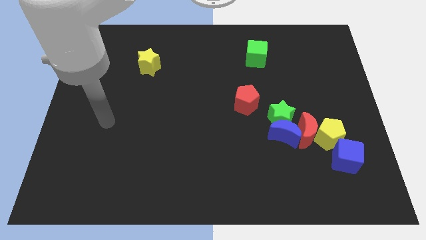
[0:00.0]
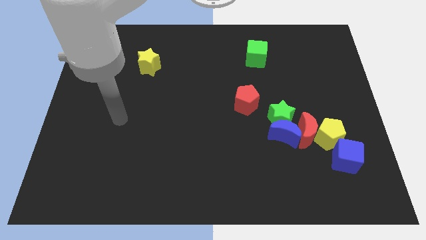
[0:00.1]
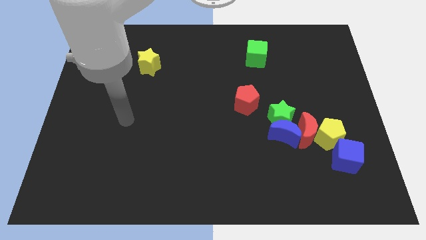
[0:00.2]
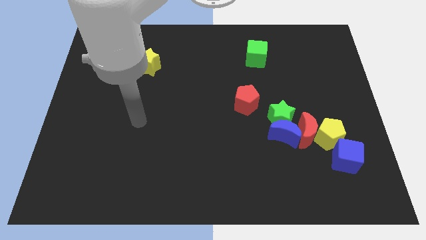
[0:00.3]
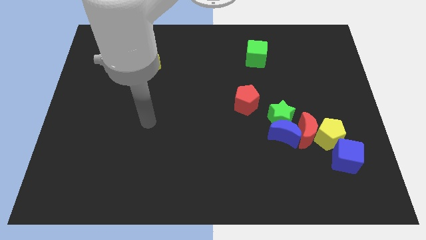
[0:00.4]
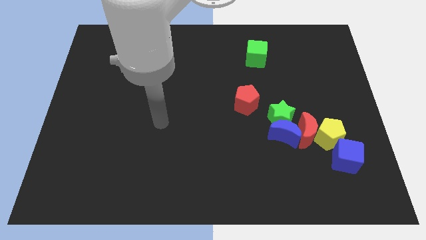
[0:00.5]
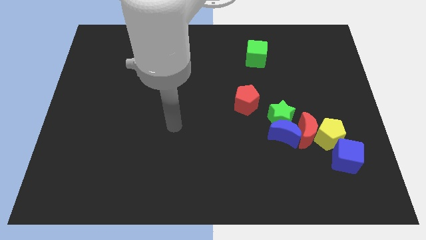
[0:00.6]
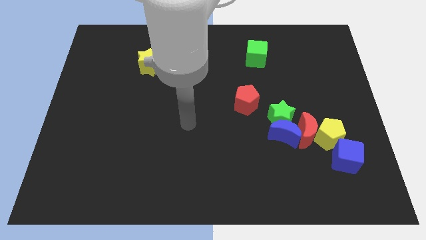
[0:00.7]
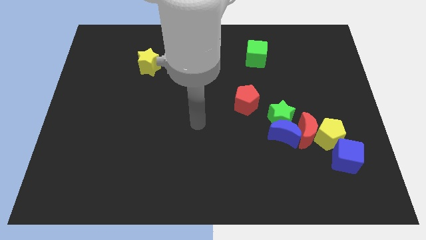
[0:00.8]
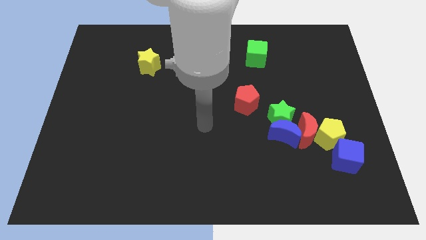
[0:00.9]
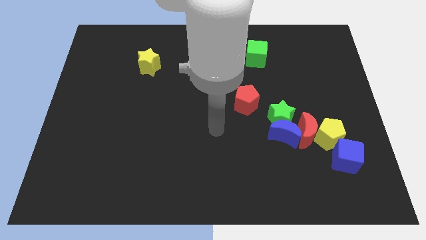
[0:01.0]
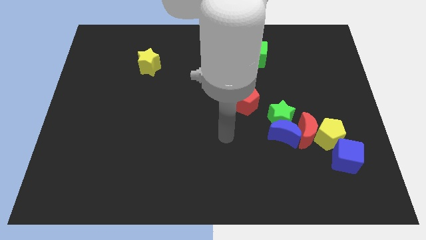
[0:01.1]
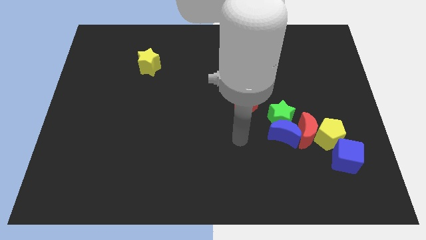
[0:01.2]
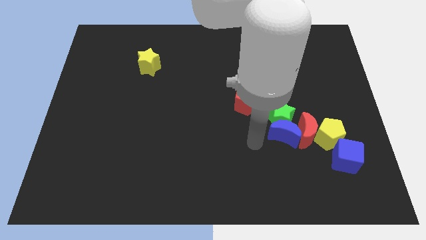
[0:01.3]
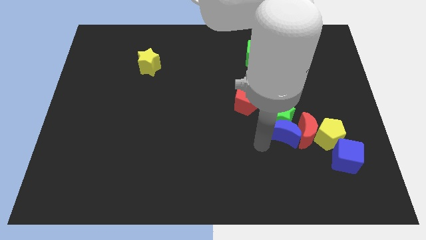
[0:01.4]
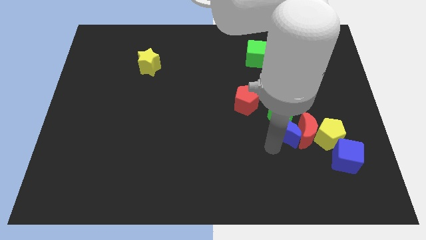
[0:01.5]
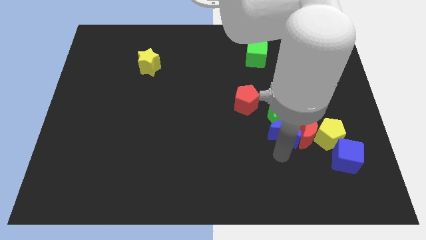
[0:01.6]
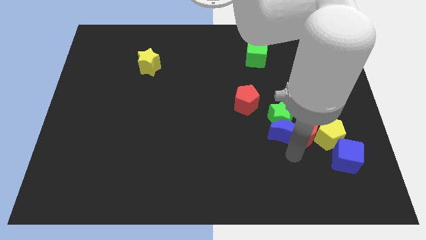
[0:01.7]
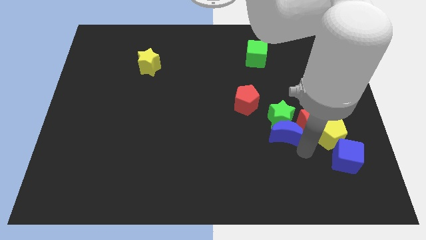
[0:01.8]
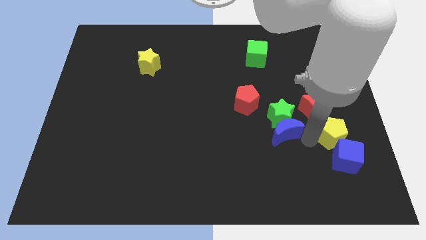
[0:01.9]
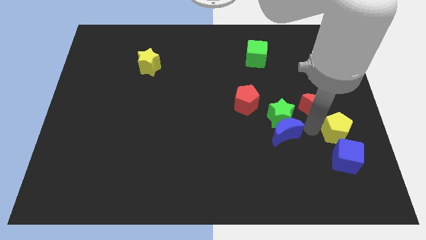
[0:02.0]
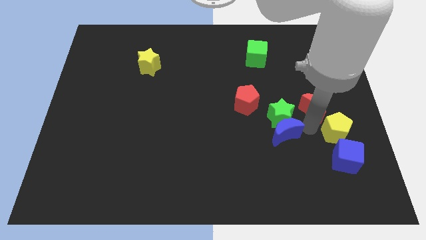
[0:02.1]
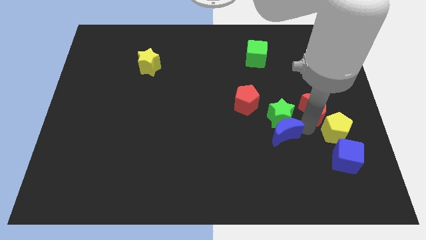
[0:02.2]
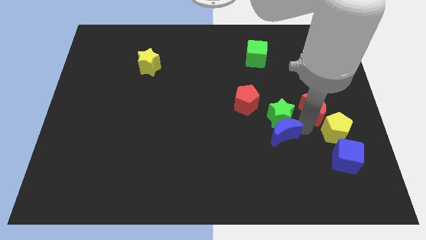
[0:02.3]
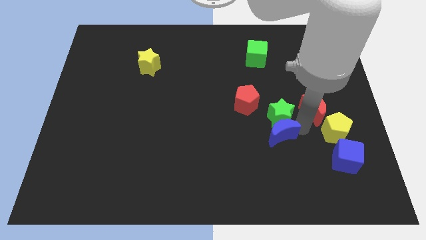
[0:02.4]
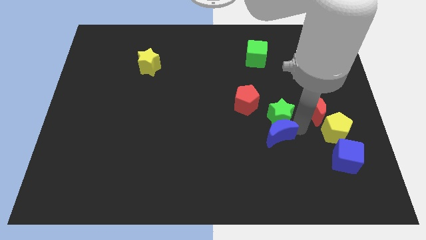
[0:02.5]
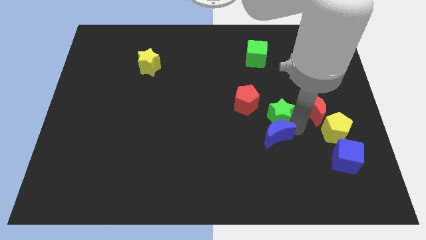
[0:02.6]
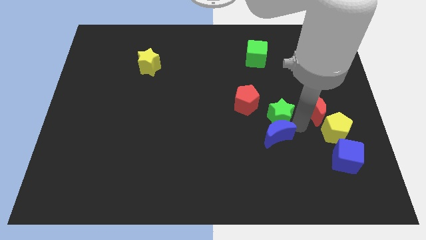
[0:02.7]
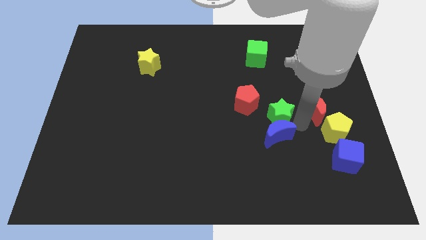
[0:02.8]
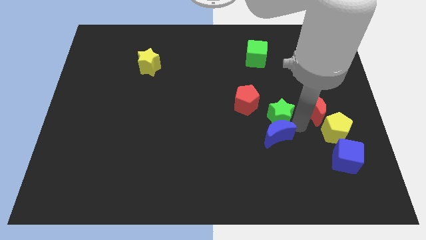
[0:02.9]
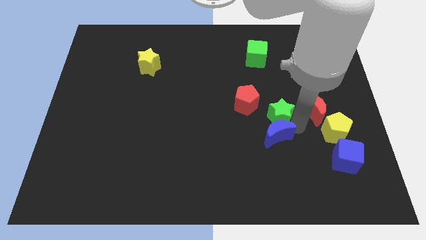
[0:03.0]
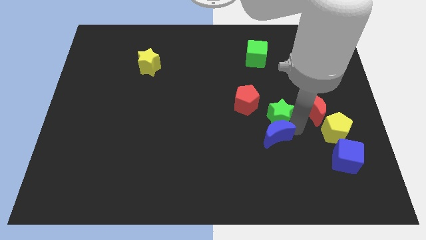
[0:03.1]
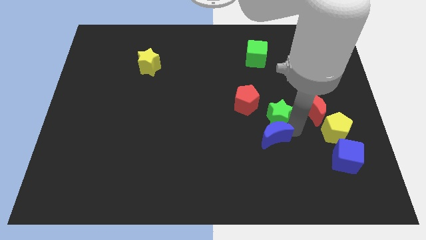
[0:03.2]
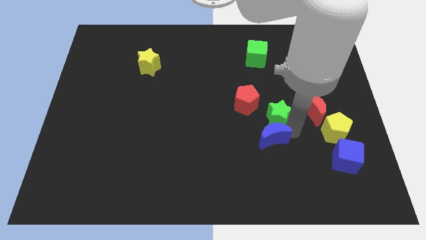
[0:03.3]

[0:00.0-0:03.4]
separate the blue moon from the green star, red moon, and yellow pentagon

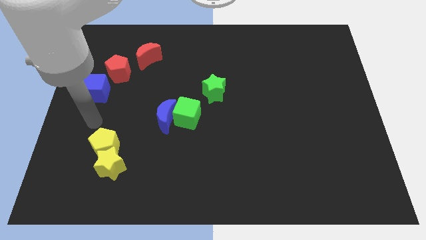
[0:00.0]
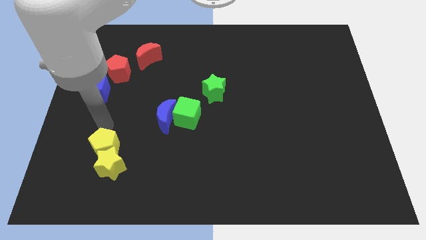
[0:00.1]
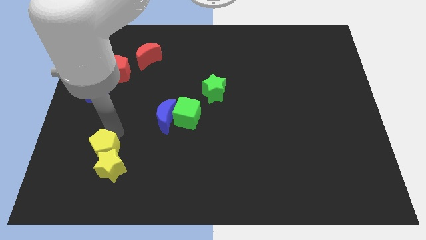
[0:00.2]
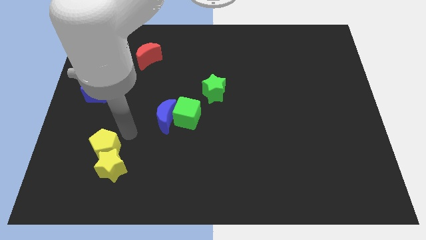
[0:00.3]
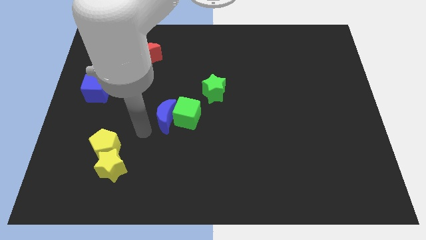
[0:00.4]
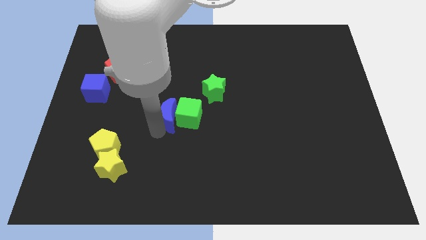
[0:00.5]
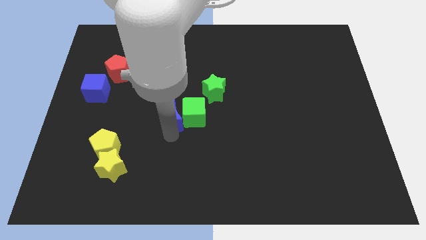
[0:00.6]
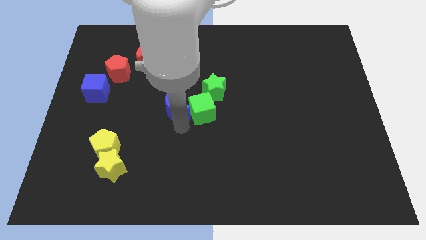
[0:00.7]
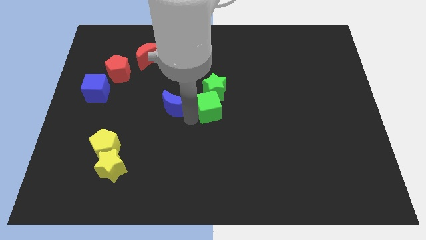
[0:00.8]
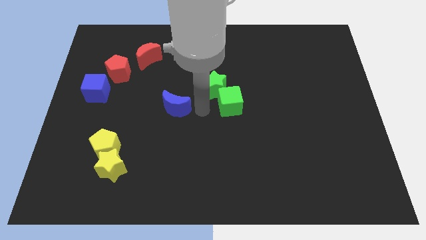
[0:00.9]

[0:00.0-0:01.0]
pull the blue moon apart from the green cube

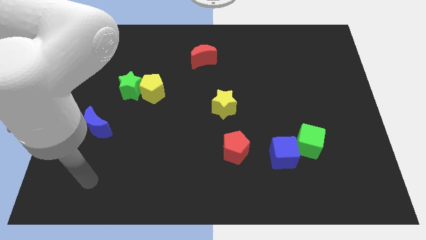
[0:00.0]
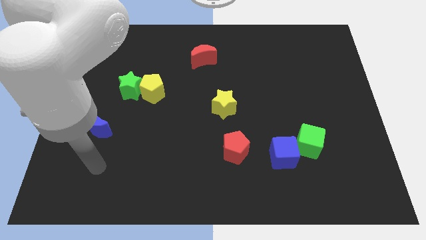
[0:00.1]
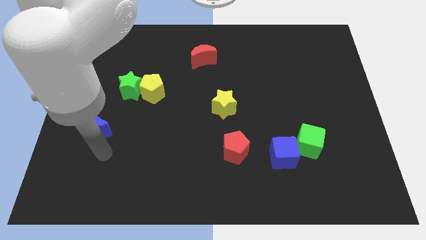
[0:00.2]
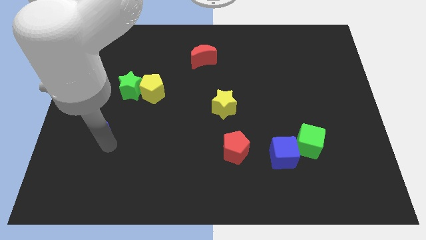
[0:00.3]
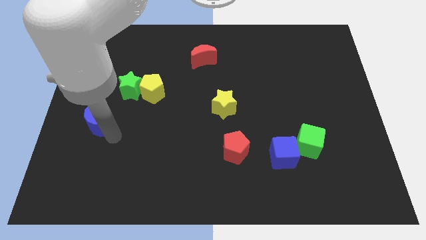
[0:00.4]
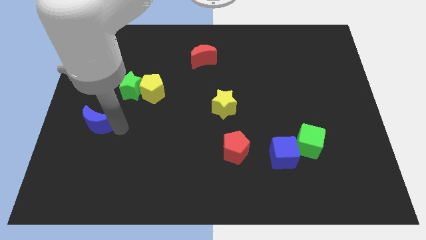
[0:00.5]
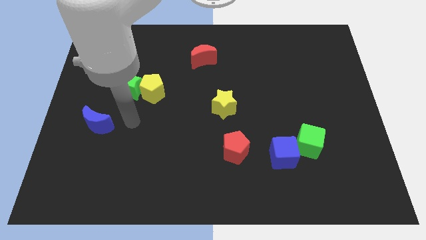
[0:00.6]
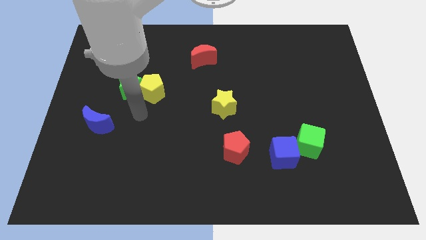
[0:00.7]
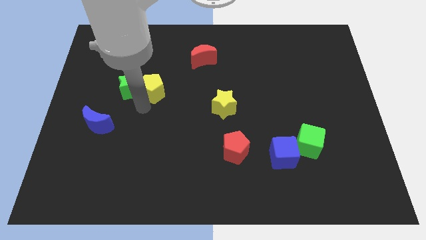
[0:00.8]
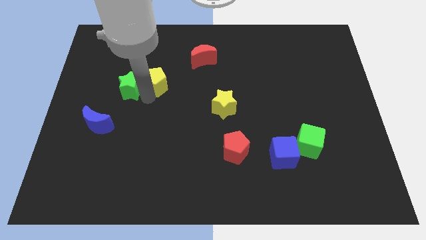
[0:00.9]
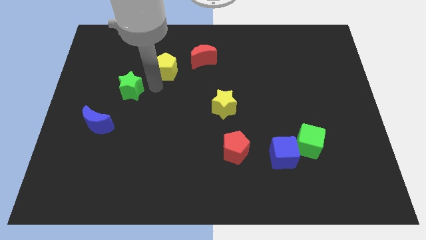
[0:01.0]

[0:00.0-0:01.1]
separate the green star from the yellow pentagon

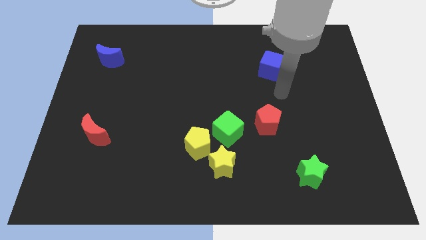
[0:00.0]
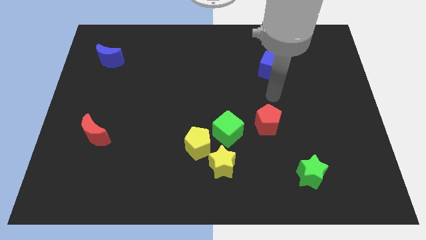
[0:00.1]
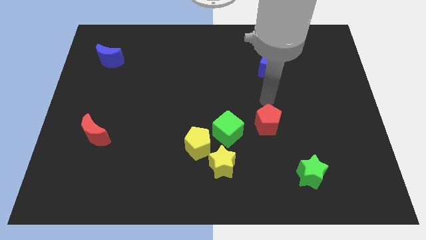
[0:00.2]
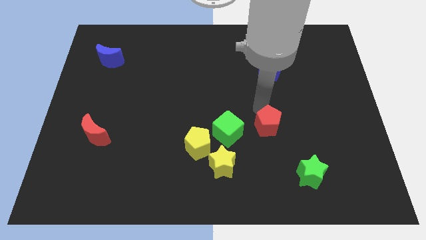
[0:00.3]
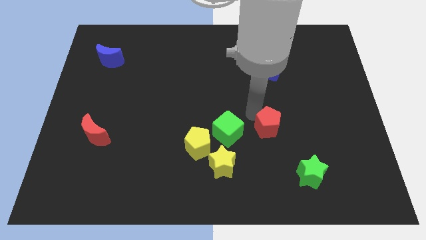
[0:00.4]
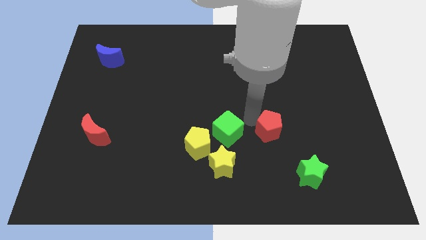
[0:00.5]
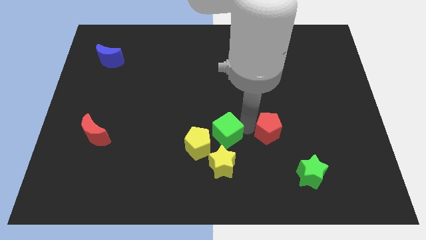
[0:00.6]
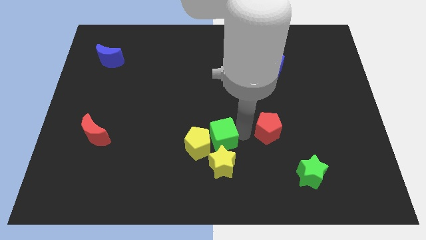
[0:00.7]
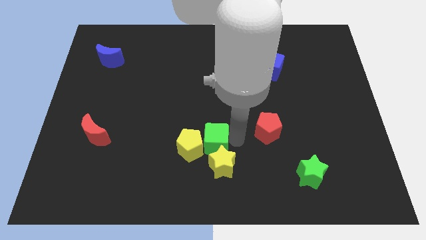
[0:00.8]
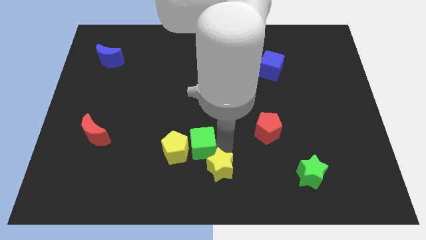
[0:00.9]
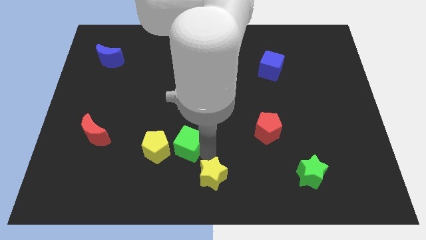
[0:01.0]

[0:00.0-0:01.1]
move the yellow pentagon away from the yellow star and green cube

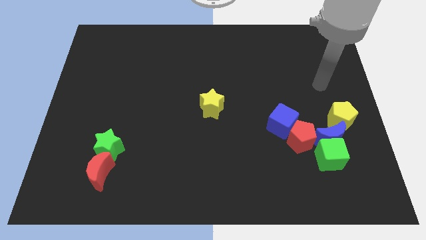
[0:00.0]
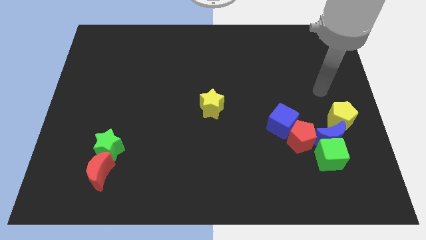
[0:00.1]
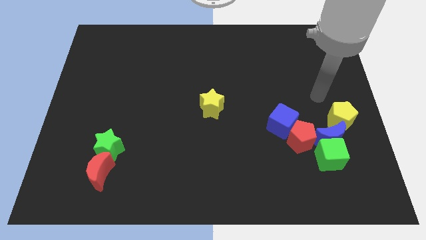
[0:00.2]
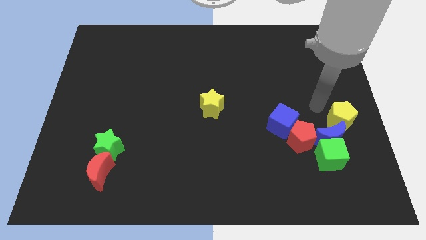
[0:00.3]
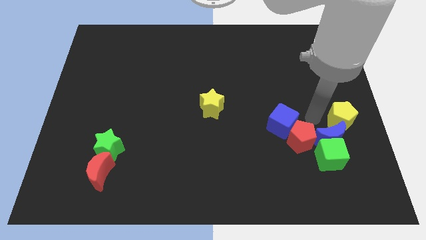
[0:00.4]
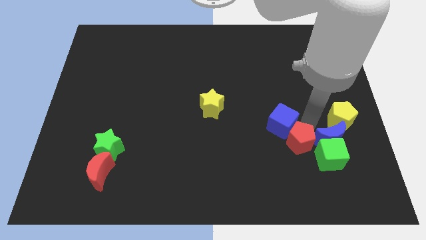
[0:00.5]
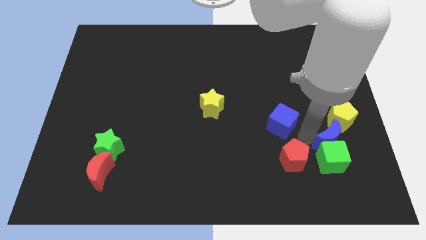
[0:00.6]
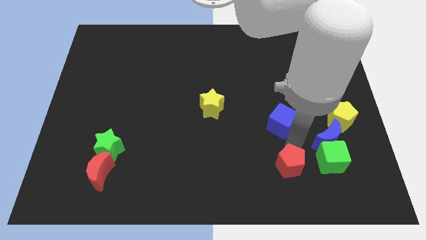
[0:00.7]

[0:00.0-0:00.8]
move the blue cube away from the red pentagon

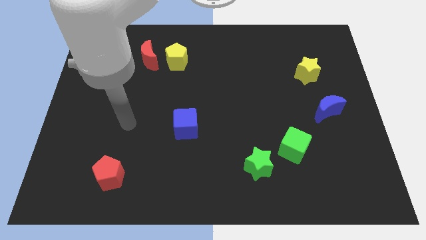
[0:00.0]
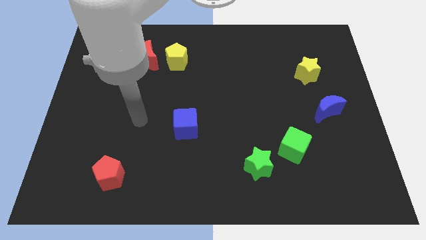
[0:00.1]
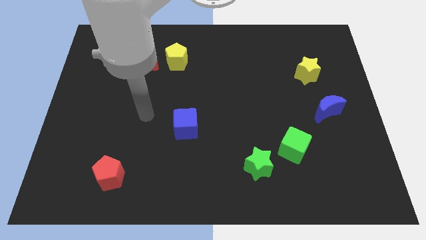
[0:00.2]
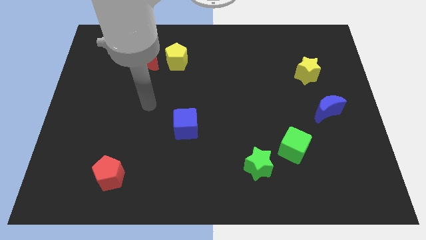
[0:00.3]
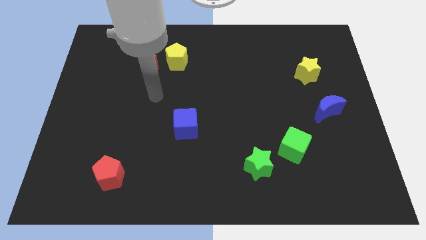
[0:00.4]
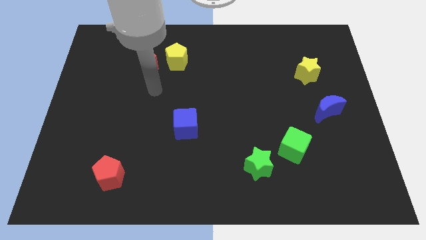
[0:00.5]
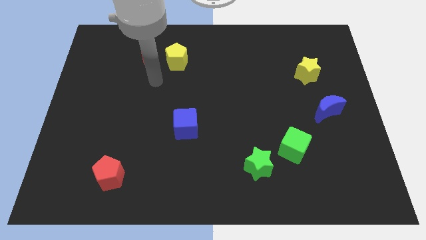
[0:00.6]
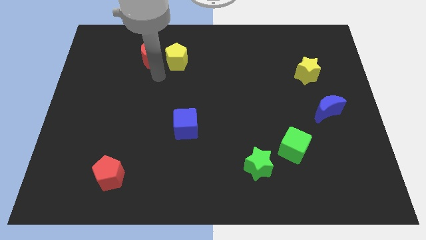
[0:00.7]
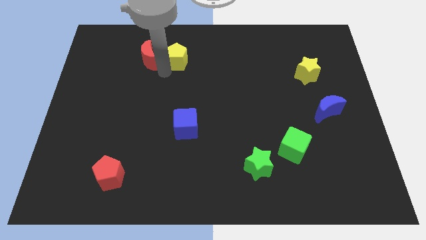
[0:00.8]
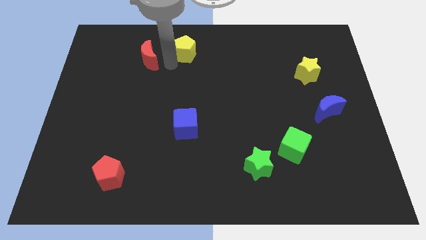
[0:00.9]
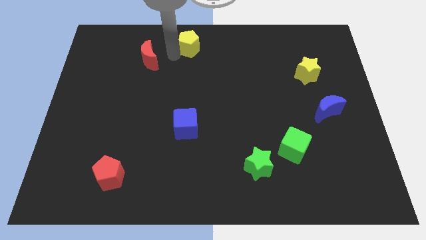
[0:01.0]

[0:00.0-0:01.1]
separate the red moon from the yellow pentagon

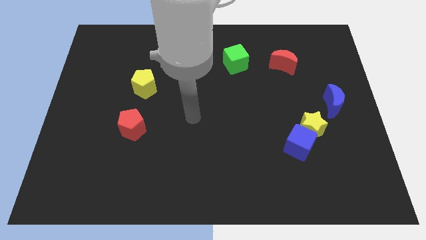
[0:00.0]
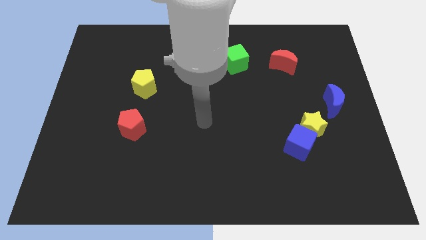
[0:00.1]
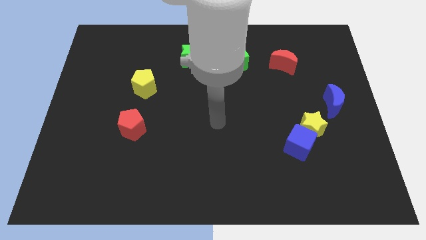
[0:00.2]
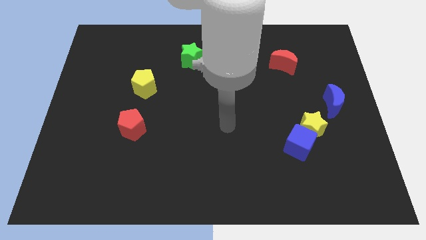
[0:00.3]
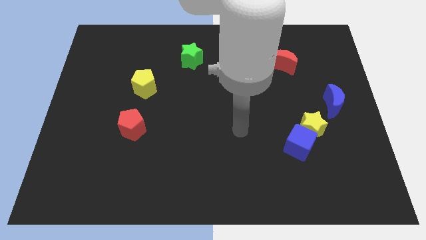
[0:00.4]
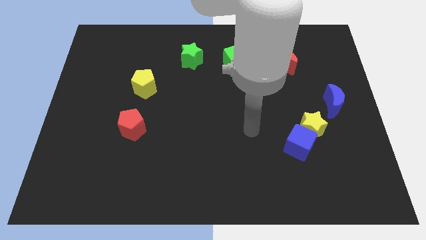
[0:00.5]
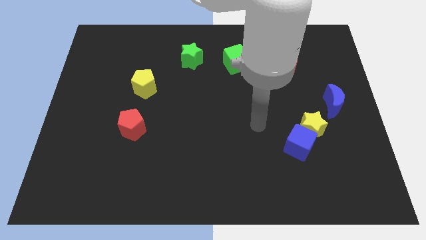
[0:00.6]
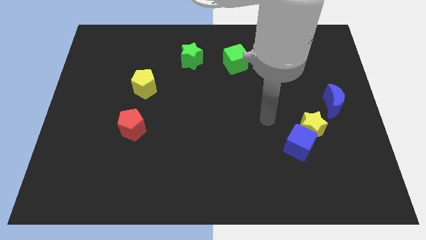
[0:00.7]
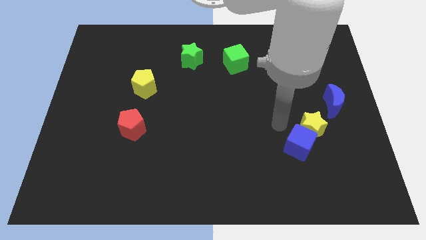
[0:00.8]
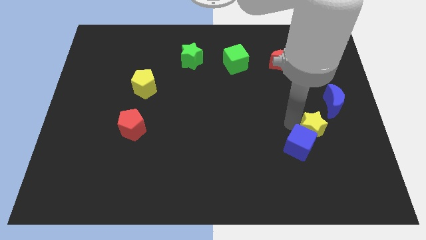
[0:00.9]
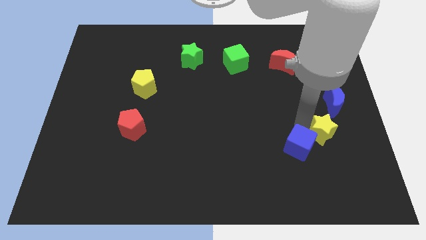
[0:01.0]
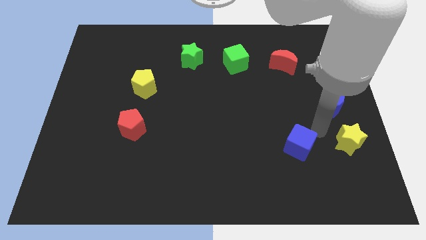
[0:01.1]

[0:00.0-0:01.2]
separate the blue cube from the yellow star
